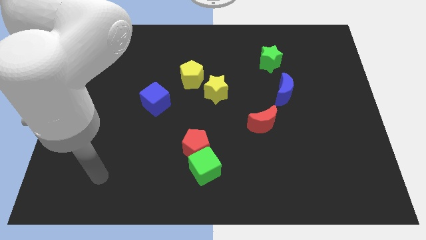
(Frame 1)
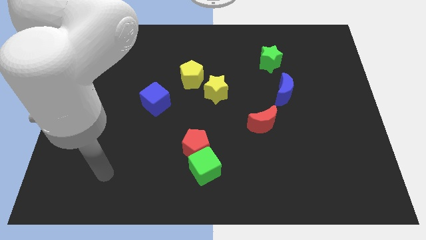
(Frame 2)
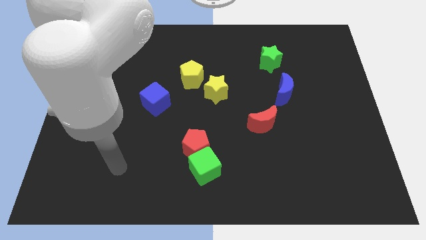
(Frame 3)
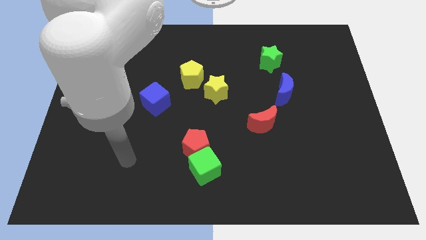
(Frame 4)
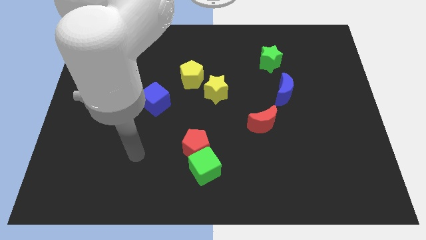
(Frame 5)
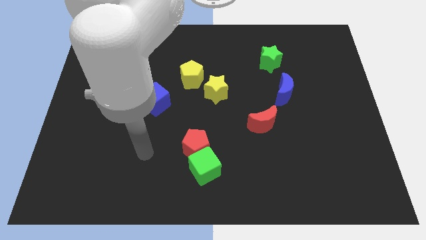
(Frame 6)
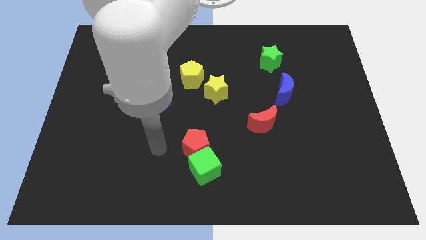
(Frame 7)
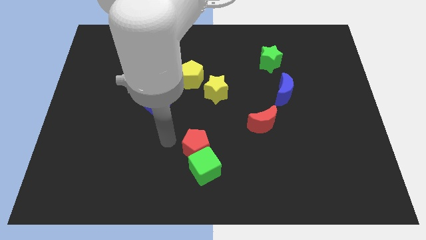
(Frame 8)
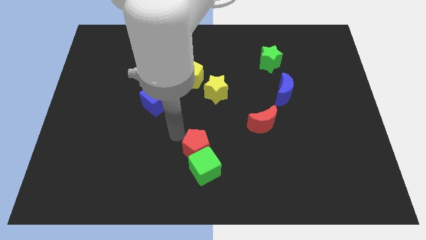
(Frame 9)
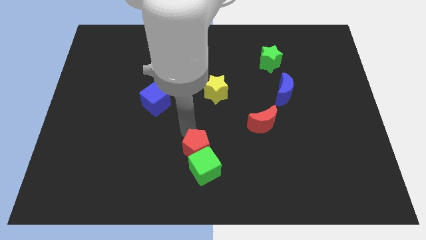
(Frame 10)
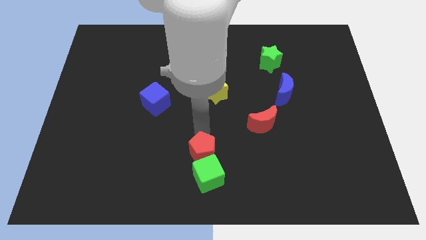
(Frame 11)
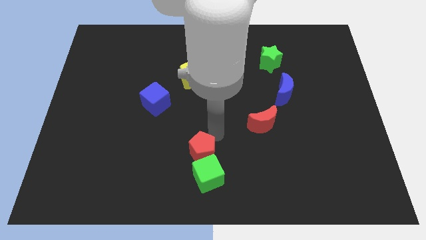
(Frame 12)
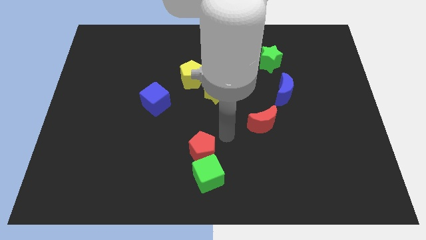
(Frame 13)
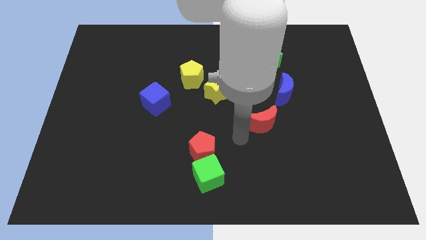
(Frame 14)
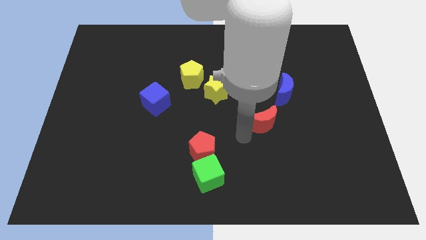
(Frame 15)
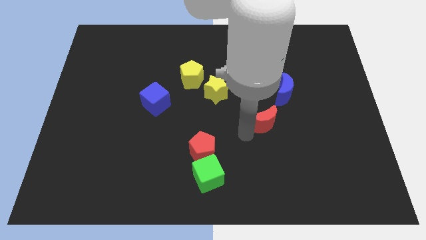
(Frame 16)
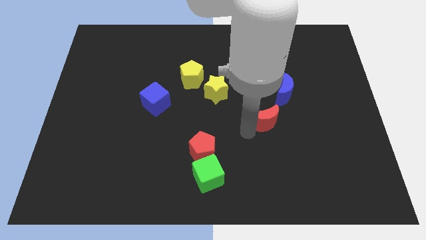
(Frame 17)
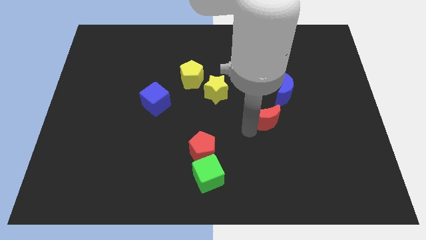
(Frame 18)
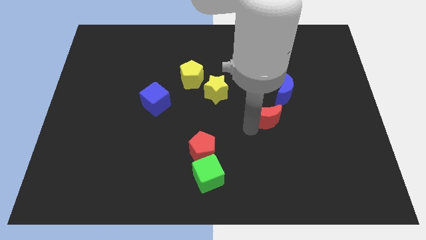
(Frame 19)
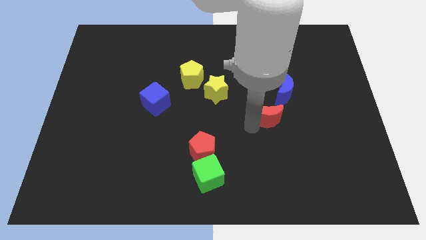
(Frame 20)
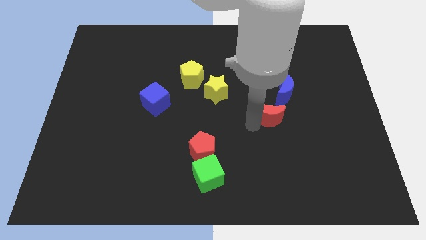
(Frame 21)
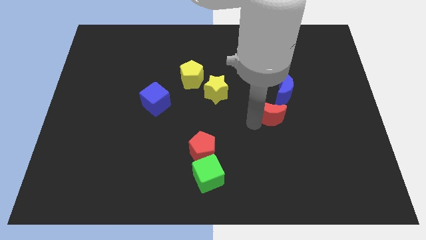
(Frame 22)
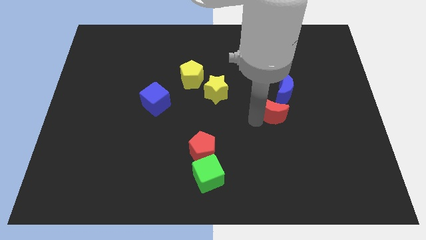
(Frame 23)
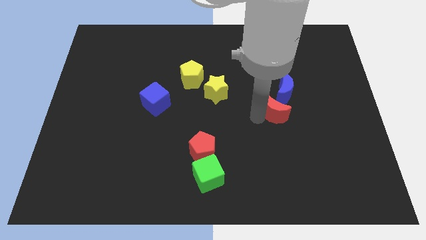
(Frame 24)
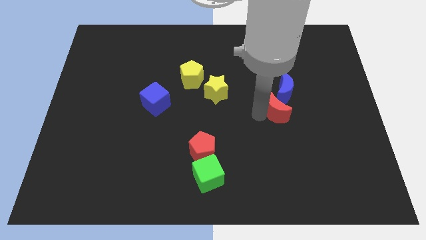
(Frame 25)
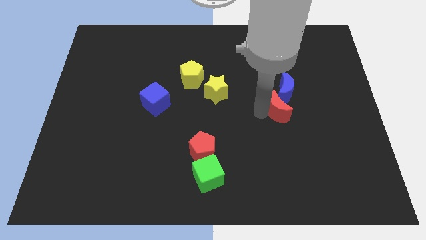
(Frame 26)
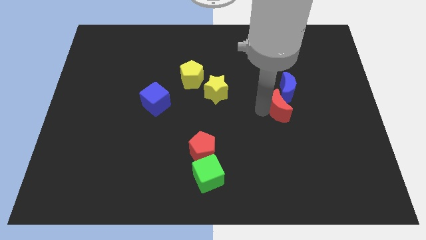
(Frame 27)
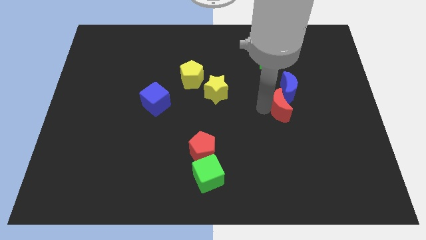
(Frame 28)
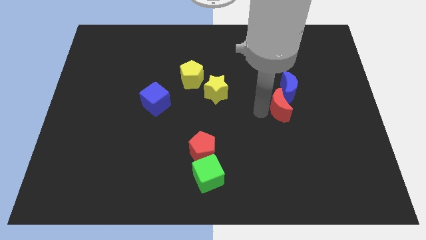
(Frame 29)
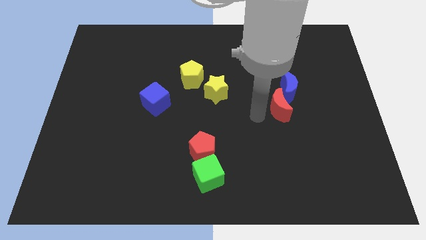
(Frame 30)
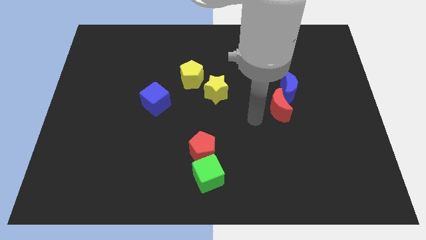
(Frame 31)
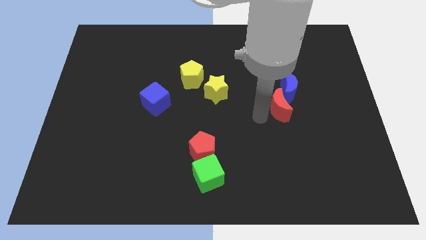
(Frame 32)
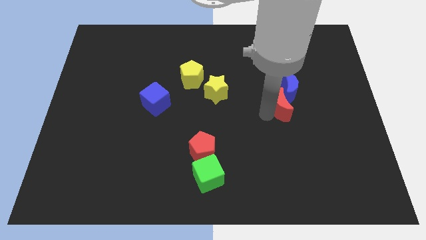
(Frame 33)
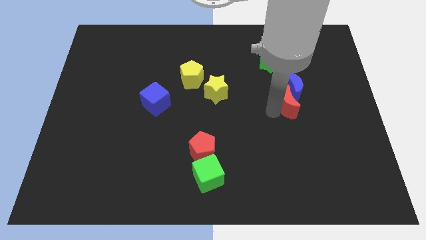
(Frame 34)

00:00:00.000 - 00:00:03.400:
slide the red moon a little diagonally upwards and to the right

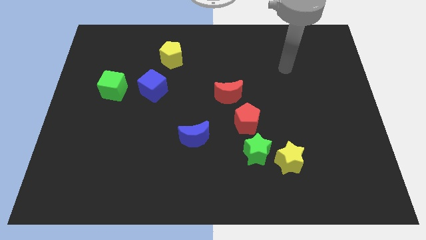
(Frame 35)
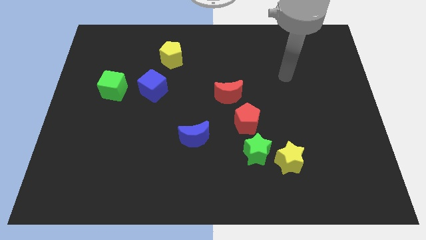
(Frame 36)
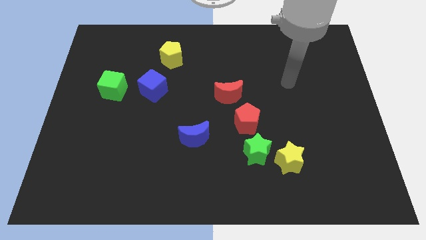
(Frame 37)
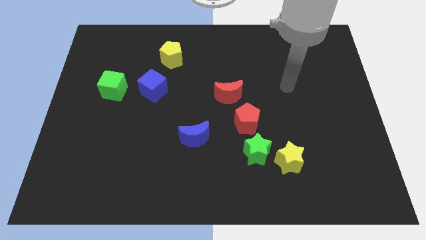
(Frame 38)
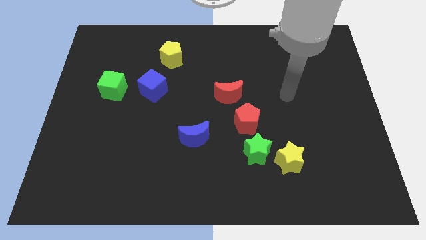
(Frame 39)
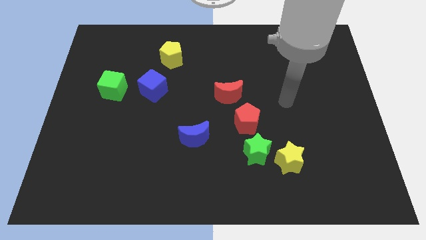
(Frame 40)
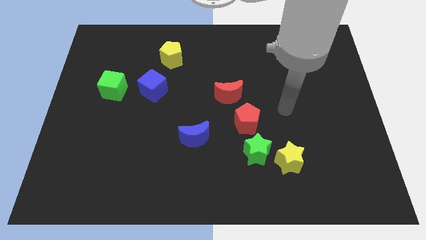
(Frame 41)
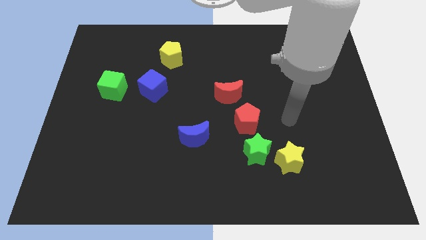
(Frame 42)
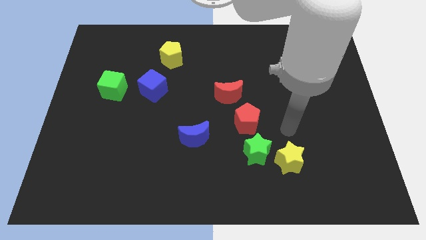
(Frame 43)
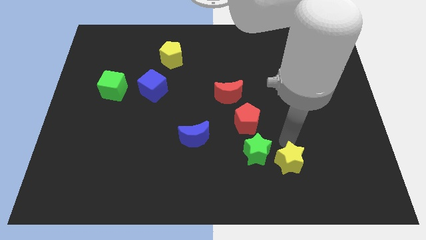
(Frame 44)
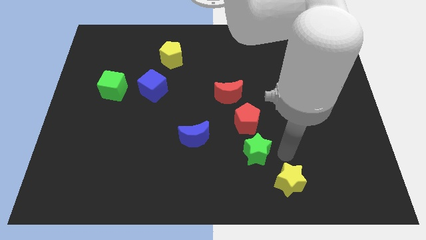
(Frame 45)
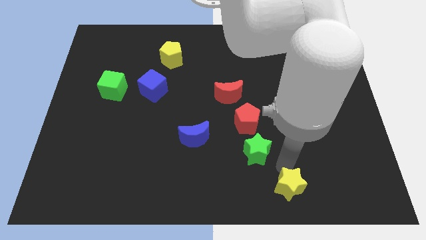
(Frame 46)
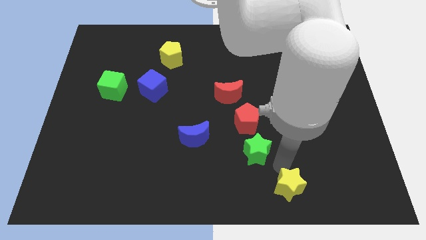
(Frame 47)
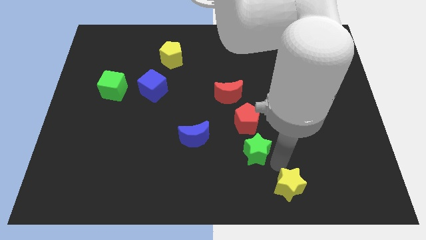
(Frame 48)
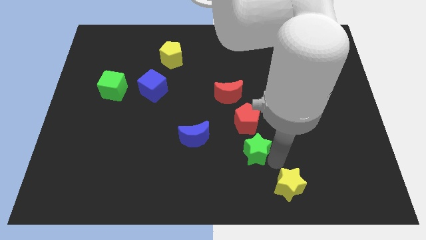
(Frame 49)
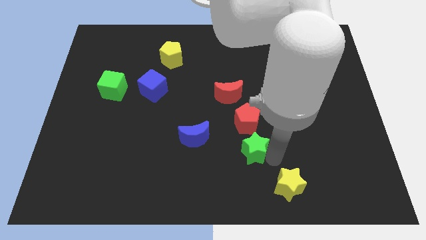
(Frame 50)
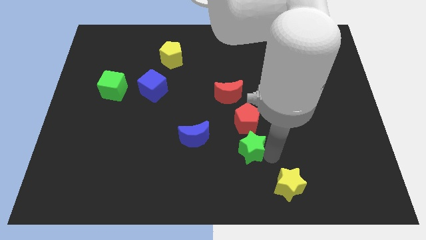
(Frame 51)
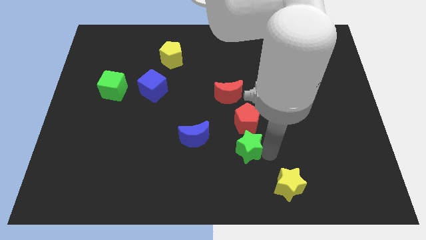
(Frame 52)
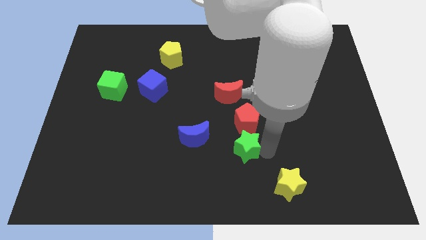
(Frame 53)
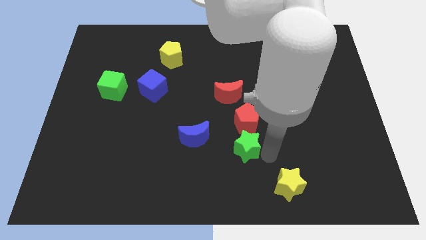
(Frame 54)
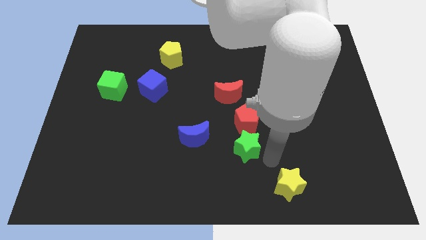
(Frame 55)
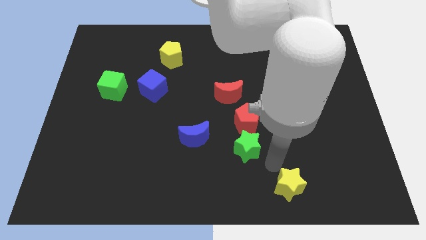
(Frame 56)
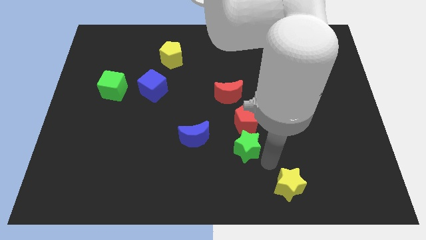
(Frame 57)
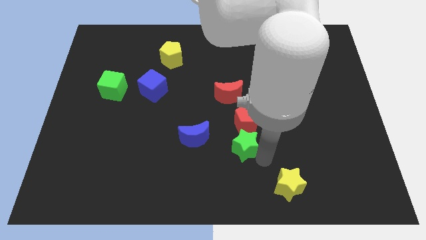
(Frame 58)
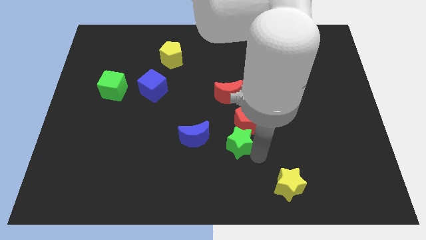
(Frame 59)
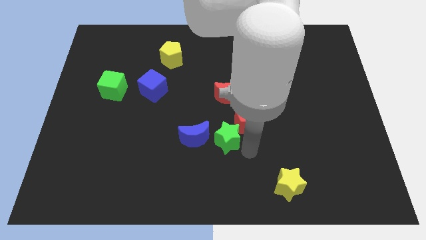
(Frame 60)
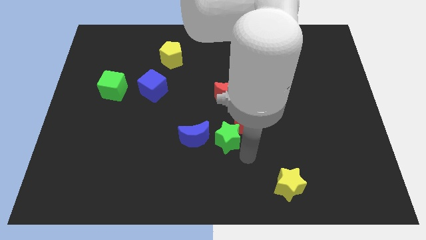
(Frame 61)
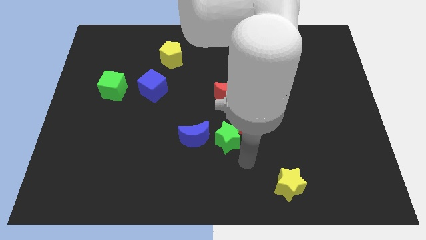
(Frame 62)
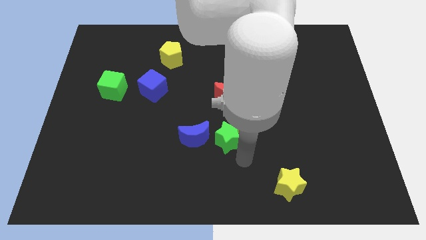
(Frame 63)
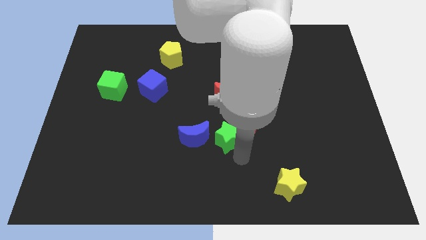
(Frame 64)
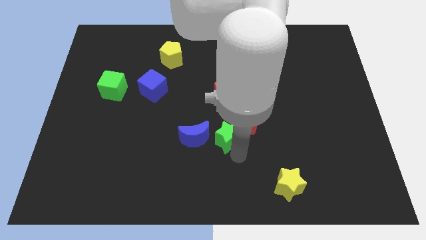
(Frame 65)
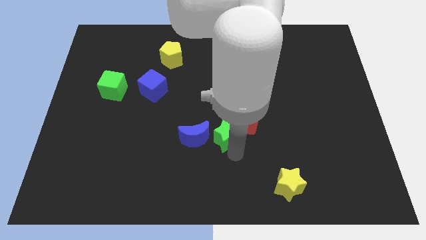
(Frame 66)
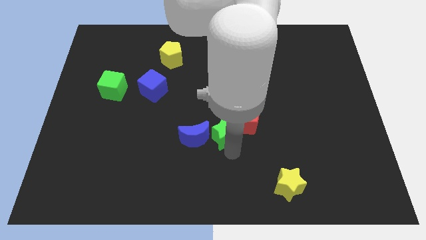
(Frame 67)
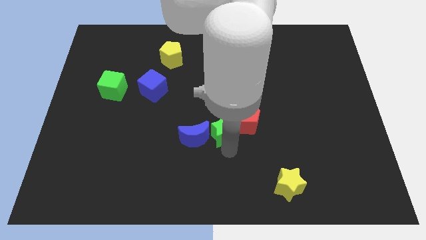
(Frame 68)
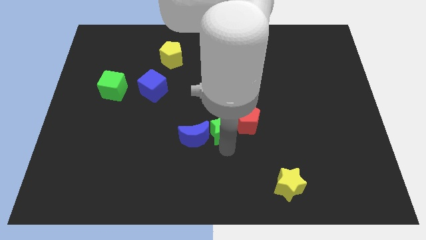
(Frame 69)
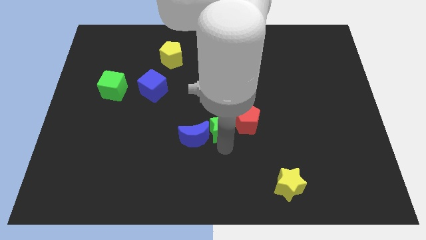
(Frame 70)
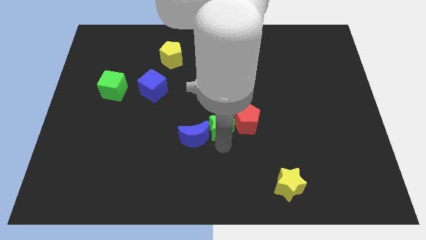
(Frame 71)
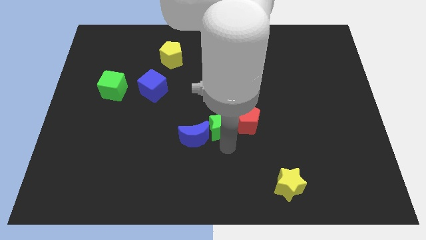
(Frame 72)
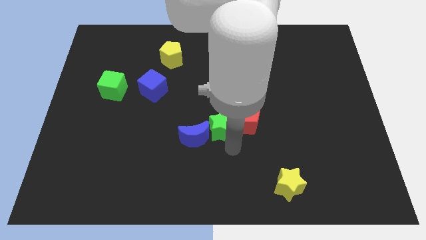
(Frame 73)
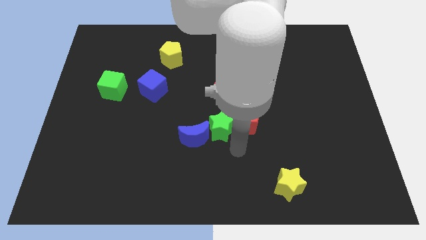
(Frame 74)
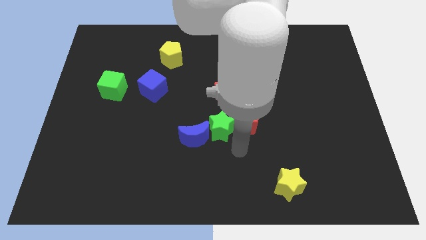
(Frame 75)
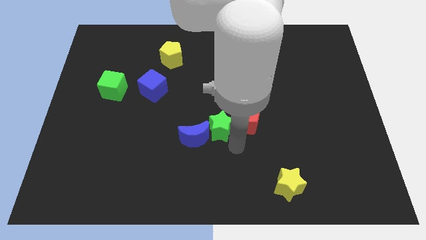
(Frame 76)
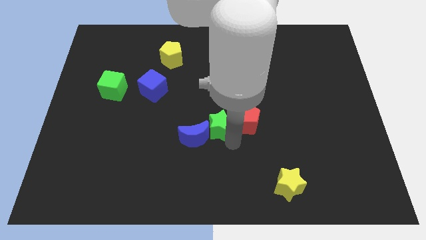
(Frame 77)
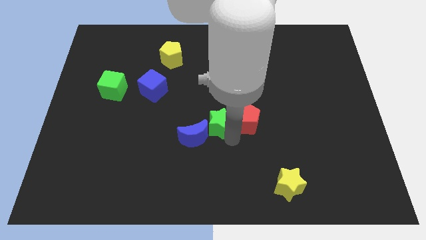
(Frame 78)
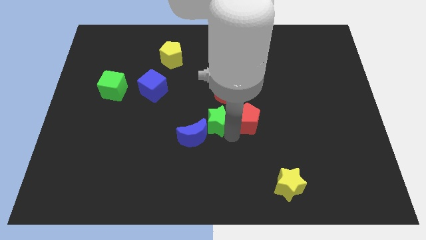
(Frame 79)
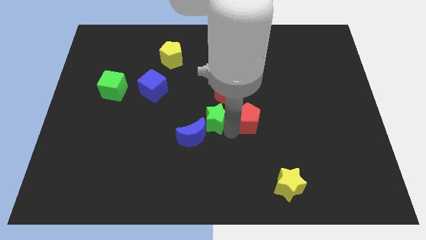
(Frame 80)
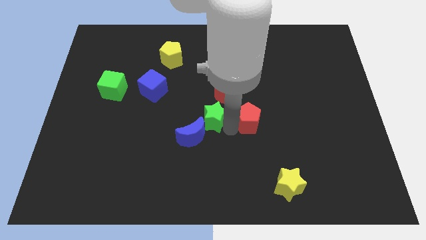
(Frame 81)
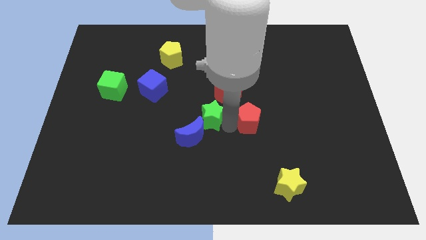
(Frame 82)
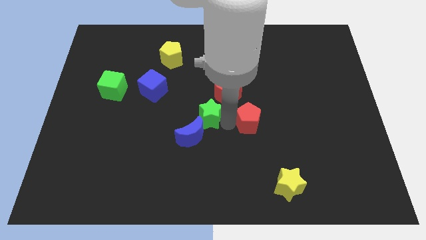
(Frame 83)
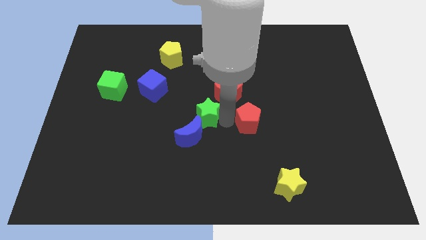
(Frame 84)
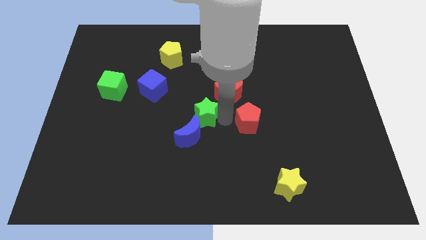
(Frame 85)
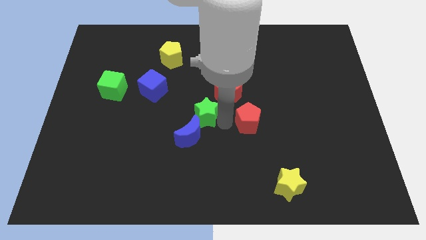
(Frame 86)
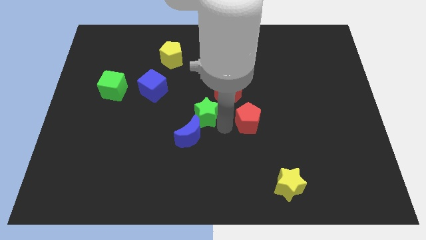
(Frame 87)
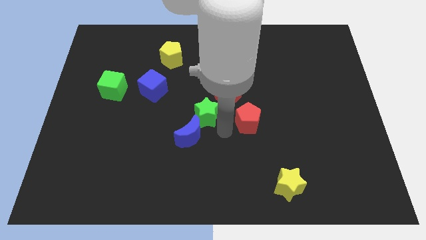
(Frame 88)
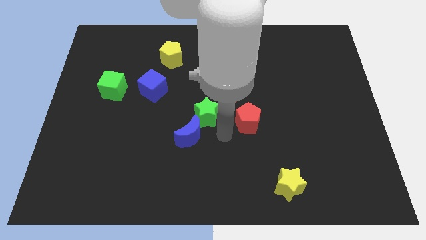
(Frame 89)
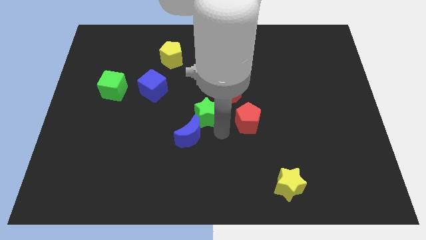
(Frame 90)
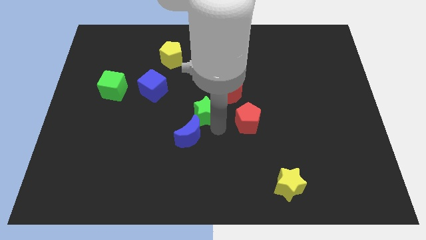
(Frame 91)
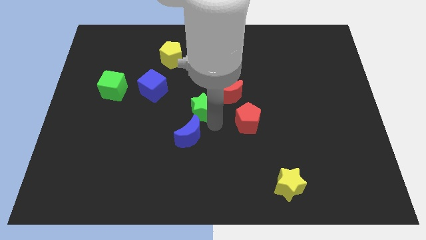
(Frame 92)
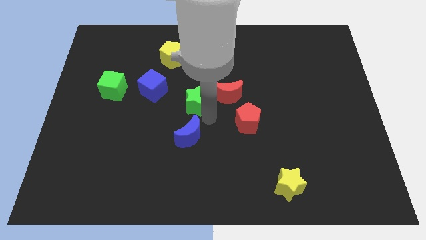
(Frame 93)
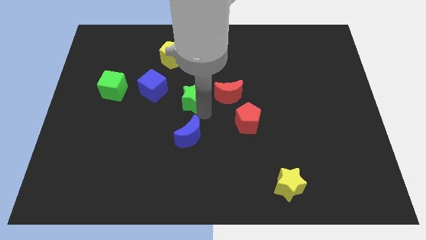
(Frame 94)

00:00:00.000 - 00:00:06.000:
move the green star upwards and left
